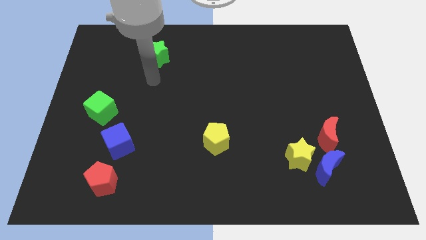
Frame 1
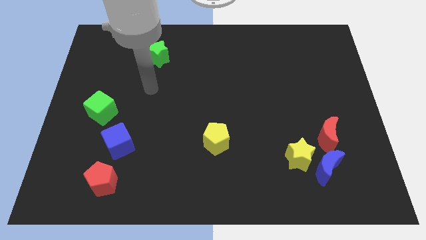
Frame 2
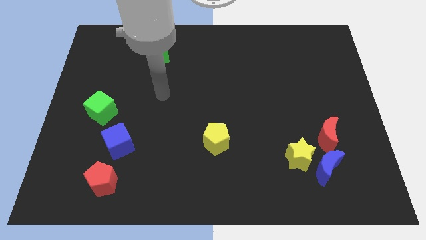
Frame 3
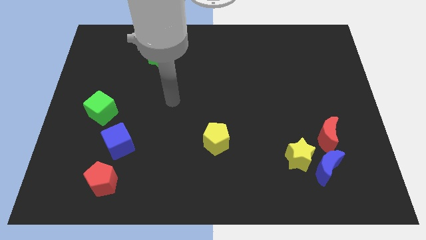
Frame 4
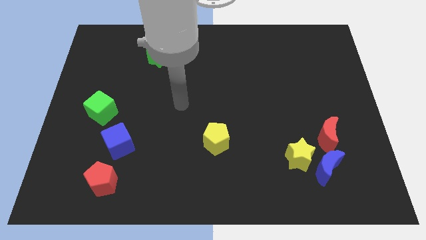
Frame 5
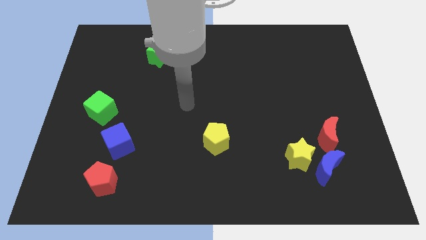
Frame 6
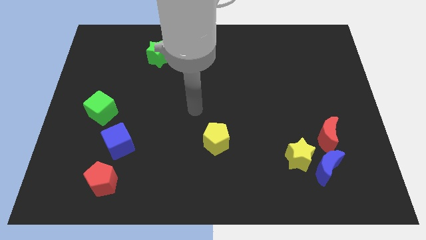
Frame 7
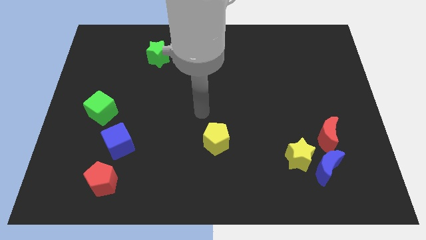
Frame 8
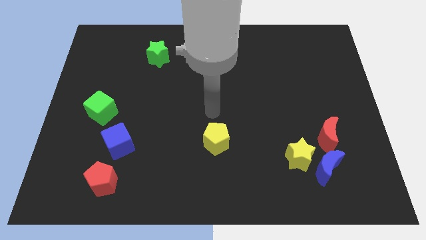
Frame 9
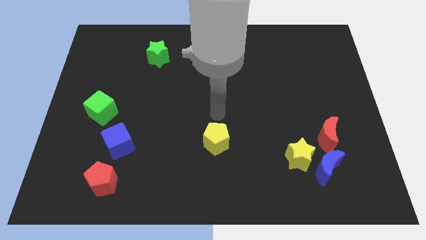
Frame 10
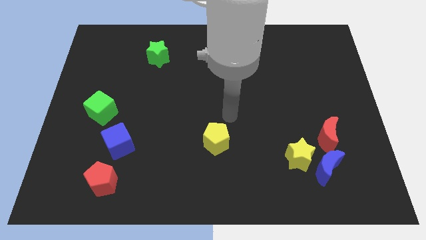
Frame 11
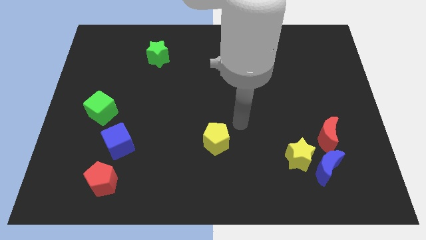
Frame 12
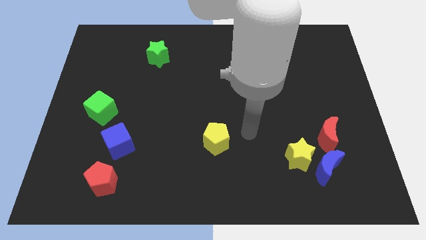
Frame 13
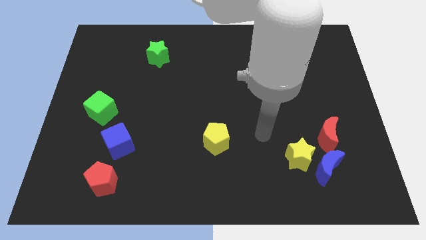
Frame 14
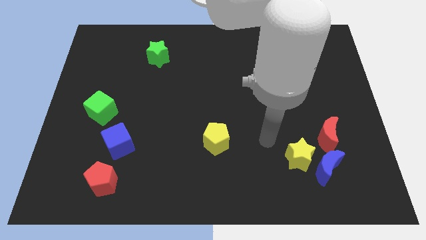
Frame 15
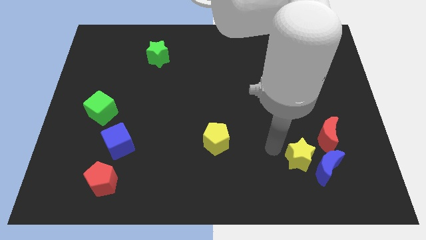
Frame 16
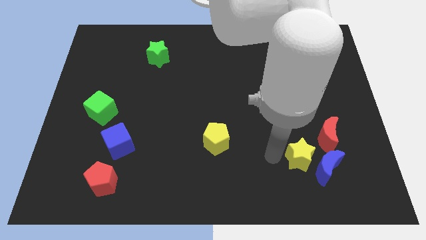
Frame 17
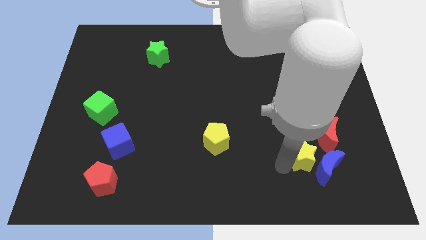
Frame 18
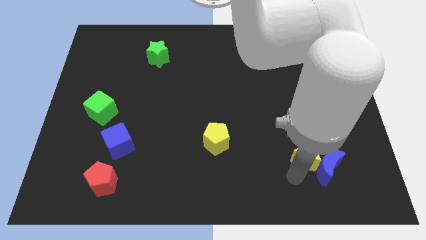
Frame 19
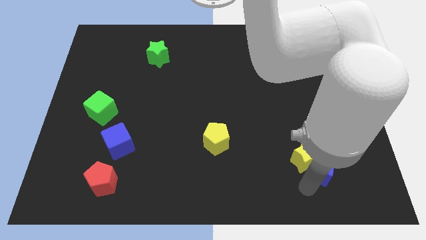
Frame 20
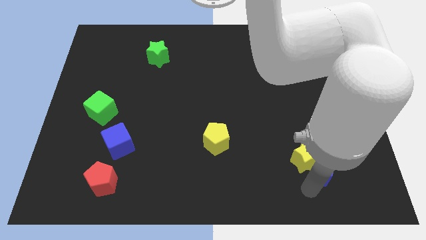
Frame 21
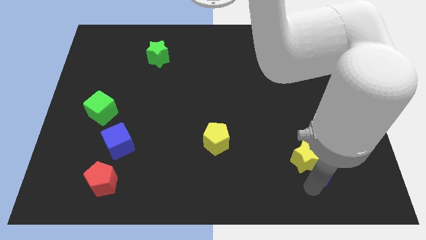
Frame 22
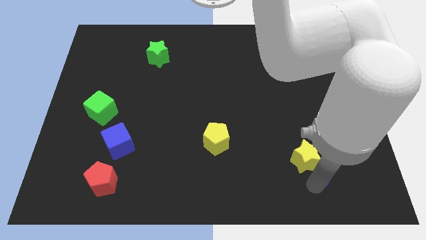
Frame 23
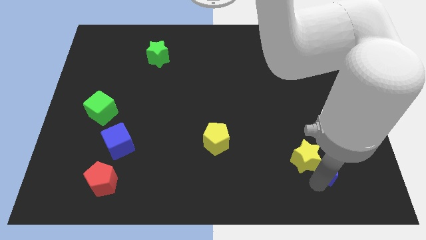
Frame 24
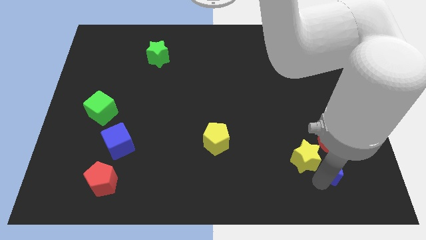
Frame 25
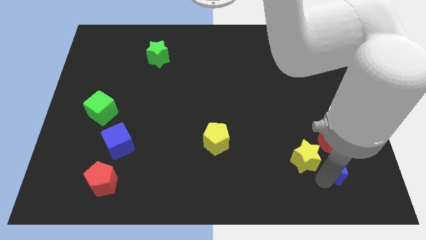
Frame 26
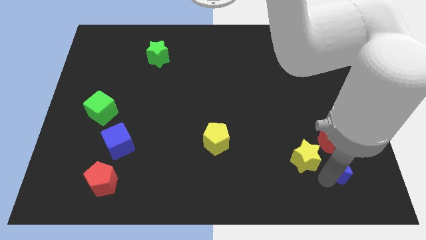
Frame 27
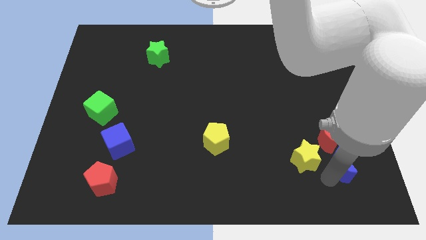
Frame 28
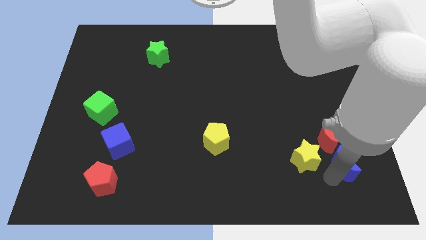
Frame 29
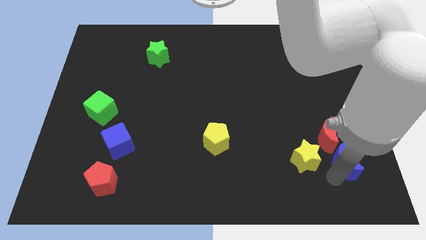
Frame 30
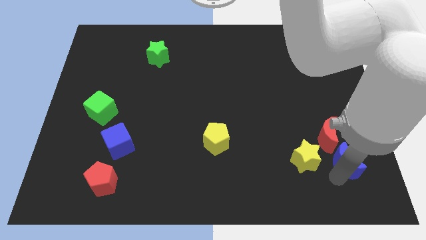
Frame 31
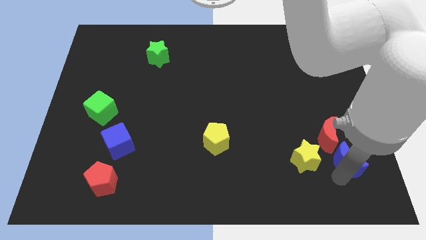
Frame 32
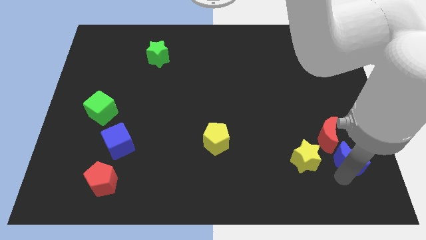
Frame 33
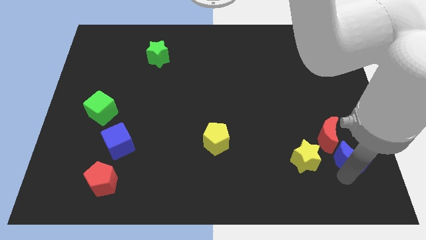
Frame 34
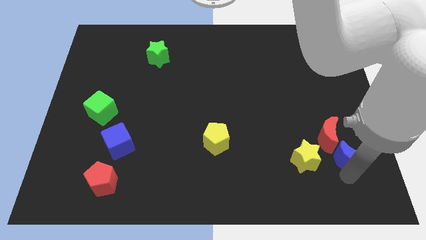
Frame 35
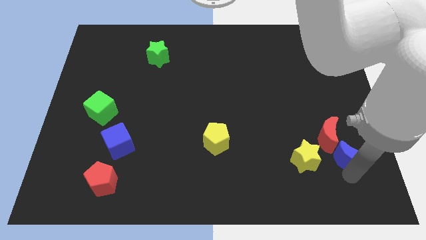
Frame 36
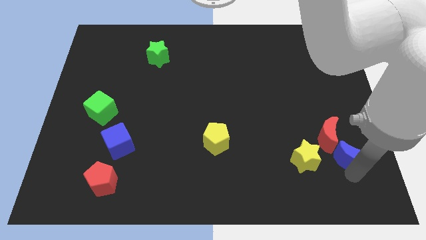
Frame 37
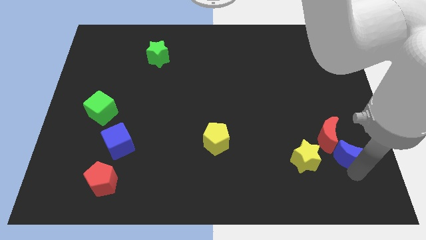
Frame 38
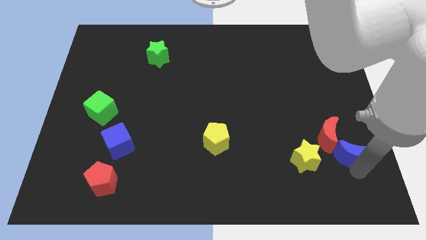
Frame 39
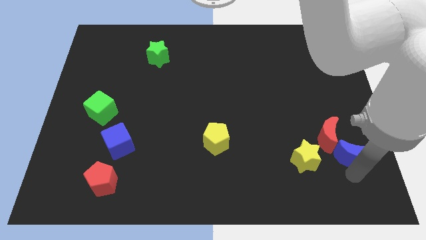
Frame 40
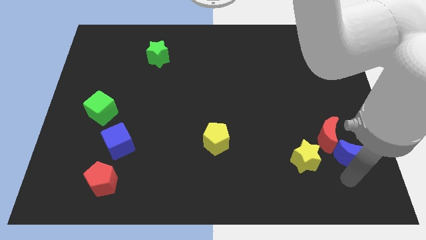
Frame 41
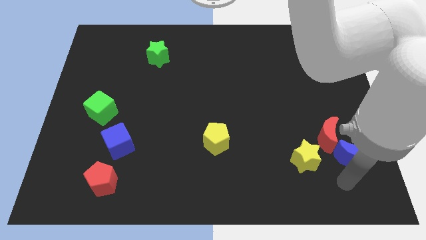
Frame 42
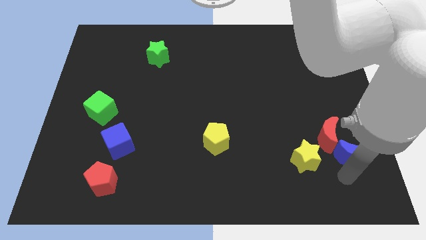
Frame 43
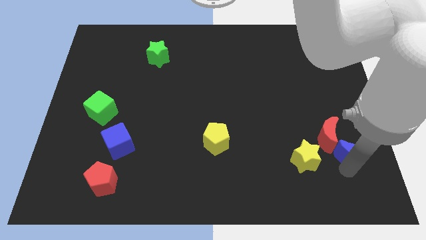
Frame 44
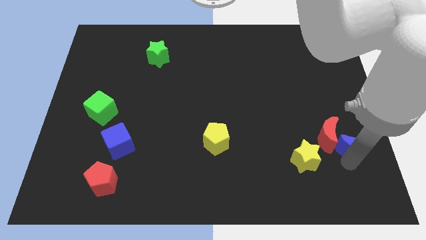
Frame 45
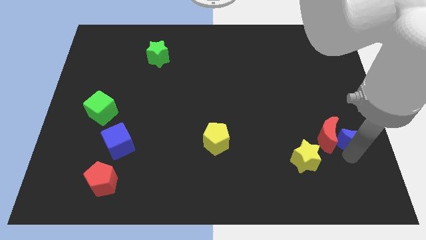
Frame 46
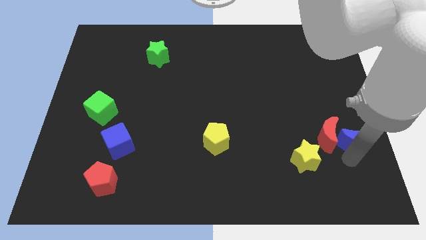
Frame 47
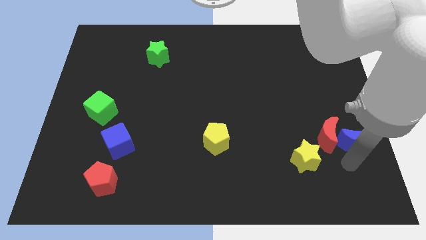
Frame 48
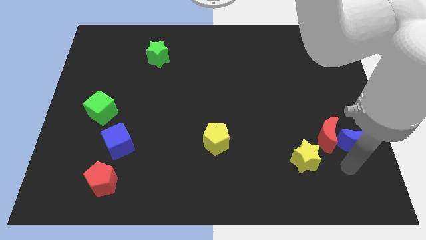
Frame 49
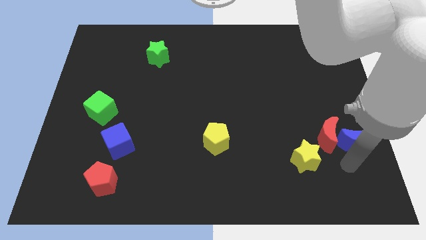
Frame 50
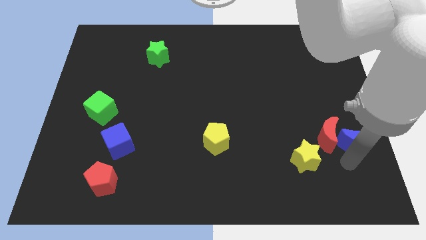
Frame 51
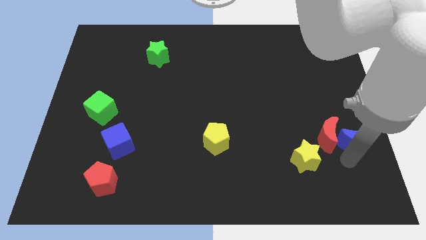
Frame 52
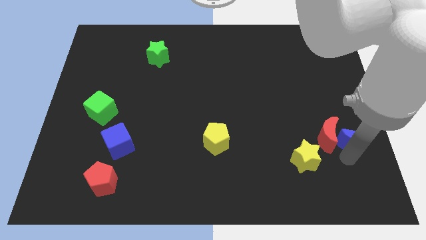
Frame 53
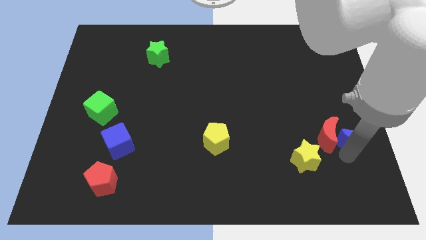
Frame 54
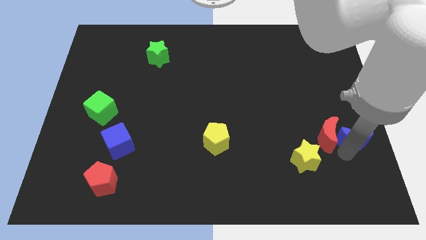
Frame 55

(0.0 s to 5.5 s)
slide the blue moon to the right side of the board

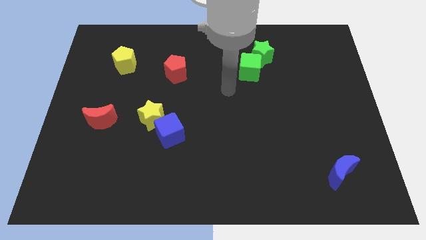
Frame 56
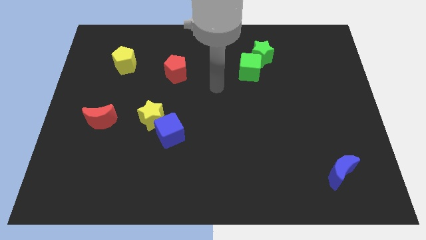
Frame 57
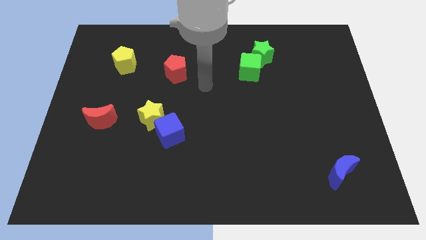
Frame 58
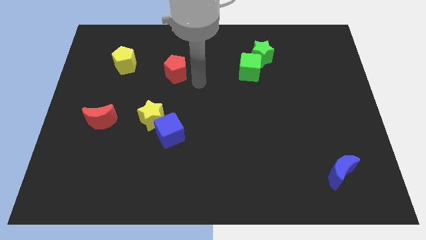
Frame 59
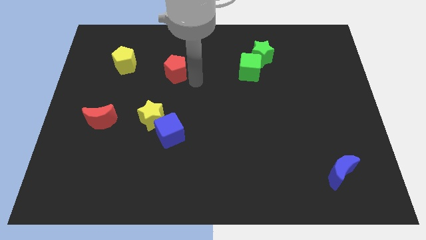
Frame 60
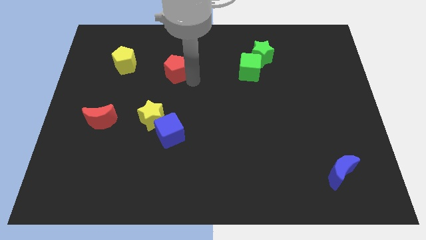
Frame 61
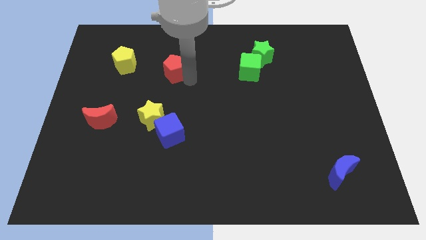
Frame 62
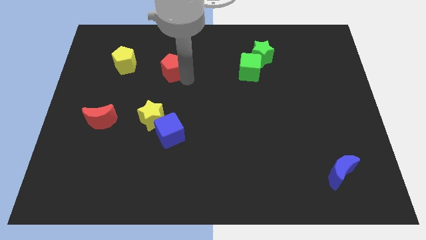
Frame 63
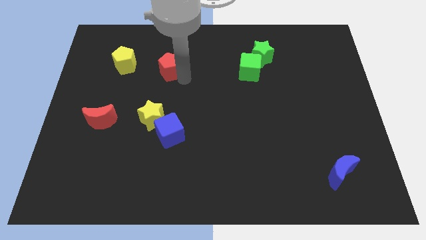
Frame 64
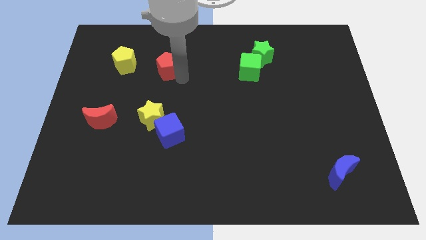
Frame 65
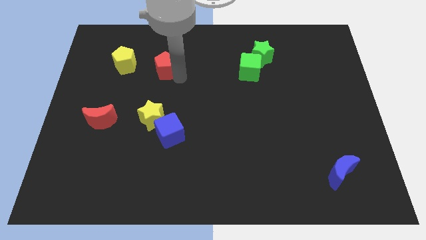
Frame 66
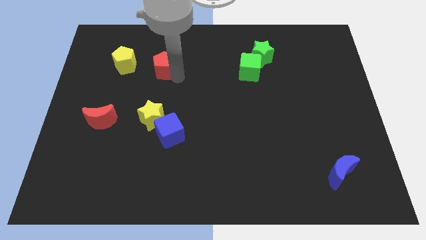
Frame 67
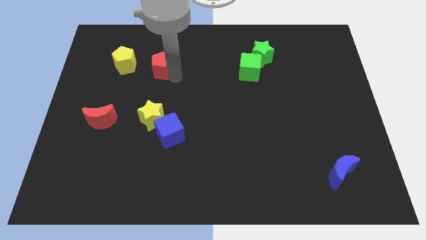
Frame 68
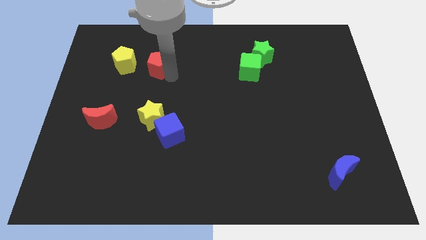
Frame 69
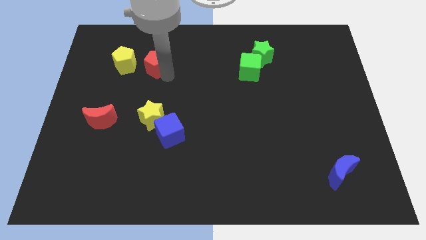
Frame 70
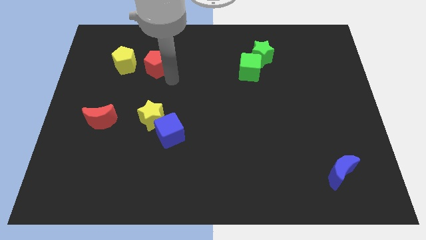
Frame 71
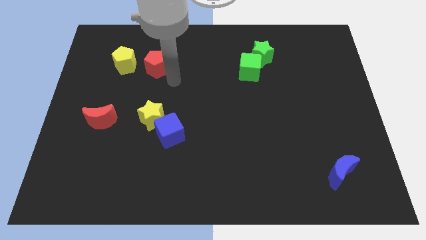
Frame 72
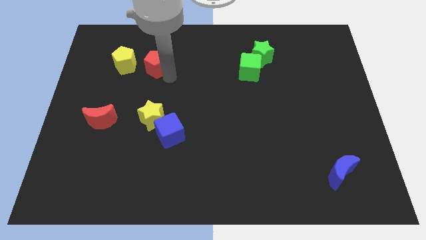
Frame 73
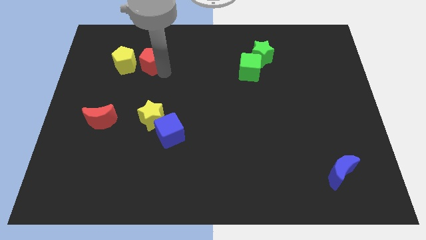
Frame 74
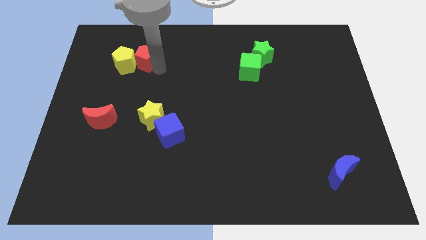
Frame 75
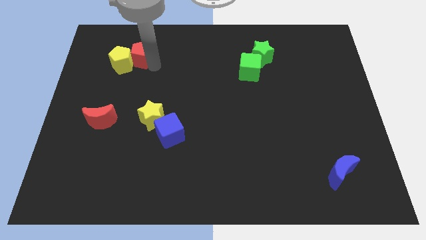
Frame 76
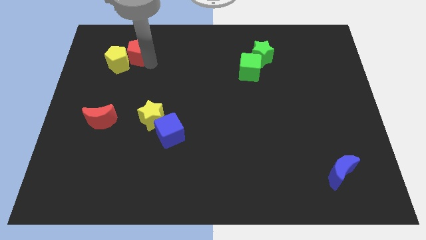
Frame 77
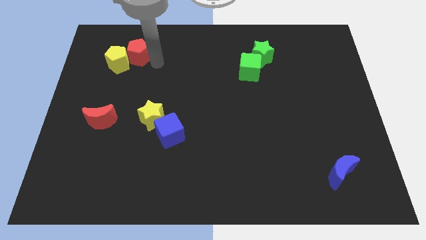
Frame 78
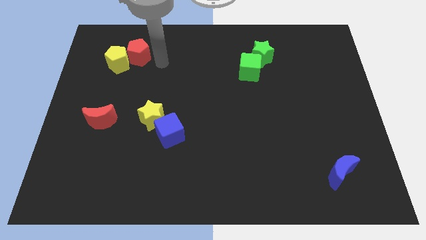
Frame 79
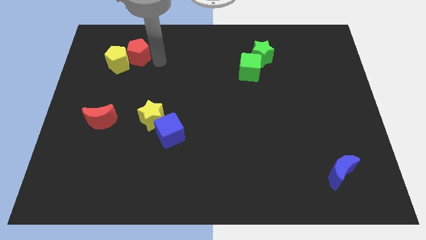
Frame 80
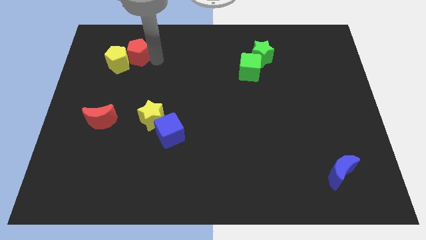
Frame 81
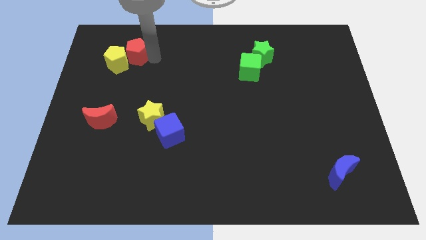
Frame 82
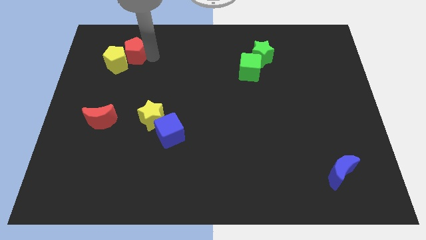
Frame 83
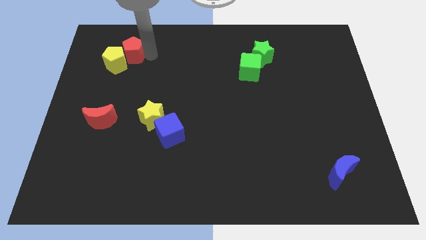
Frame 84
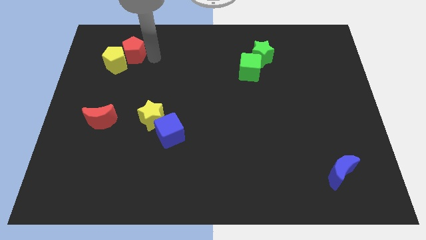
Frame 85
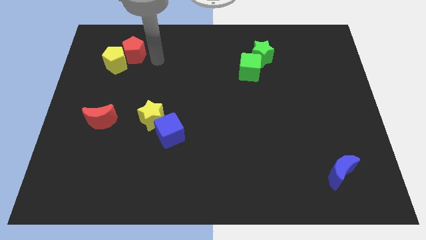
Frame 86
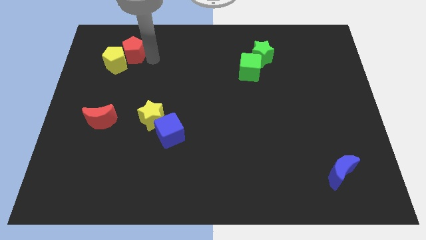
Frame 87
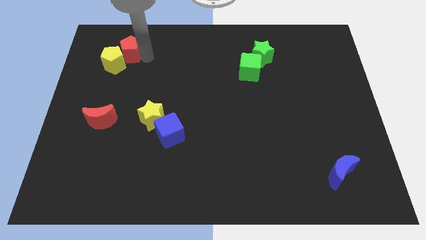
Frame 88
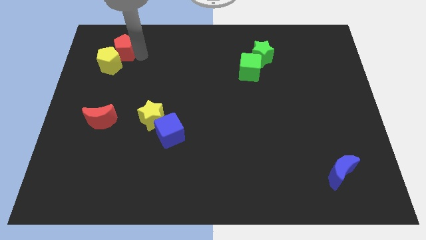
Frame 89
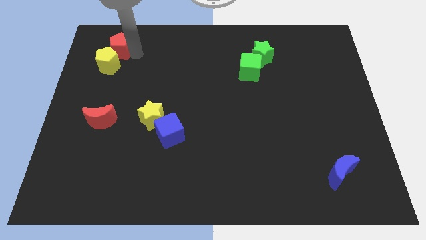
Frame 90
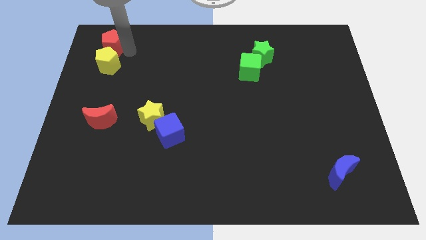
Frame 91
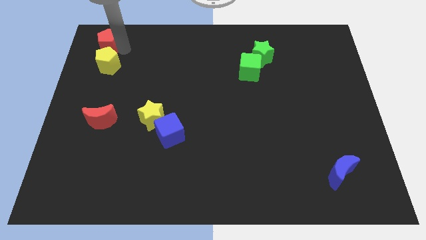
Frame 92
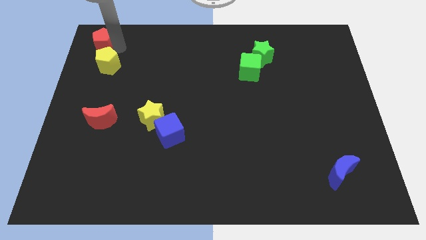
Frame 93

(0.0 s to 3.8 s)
put the red pentagon to the top left corner
